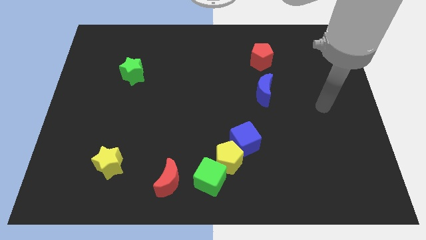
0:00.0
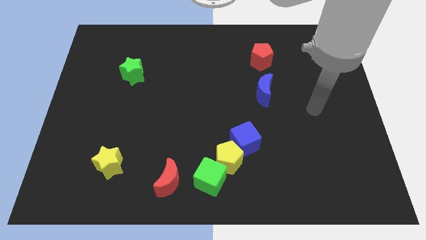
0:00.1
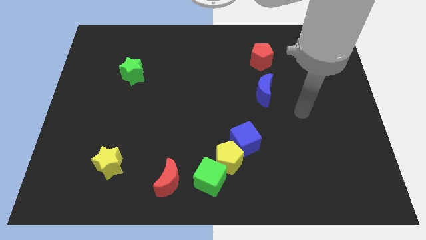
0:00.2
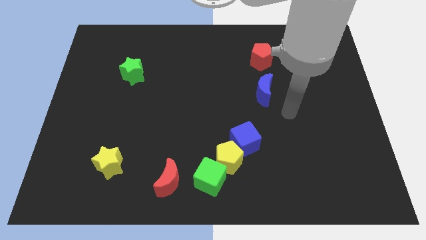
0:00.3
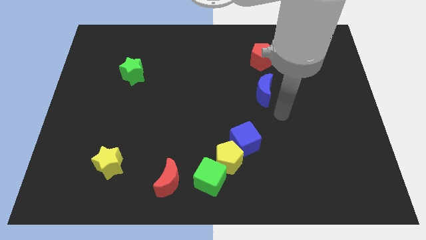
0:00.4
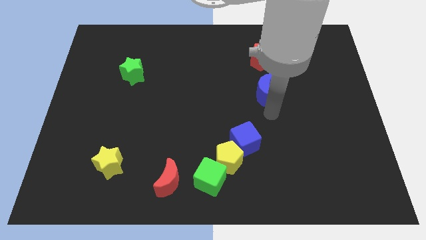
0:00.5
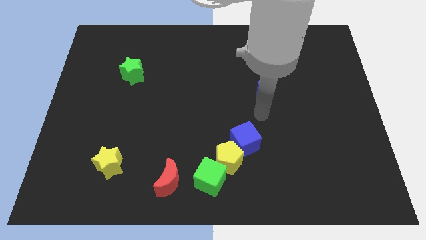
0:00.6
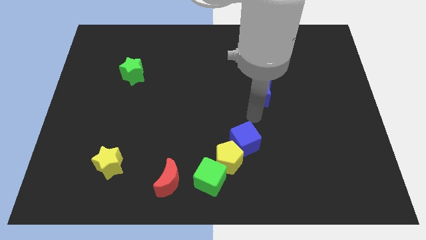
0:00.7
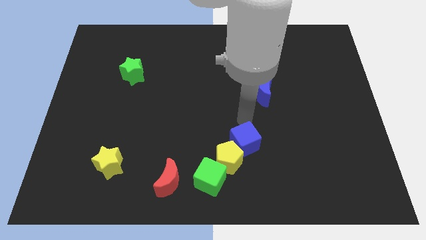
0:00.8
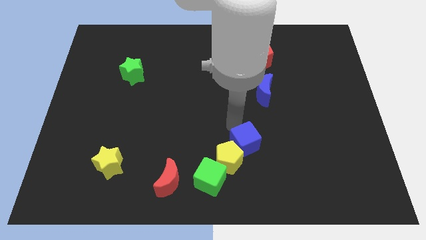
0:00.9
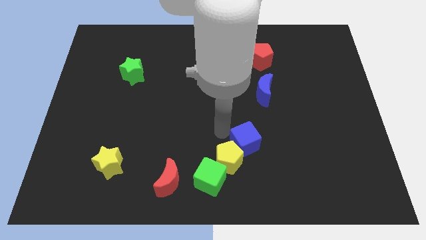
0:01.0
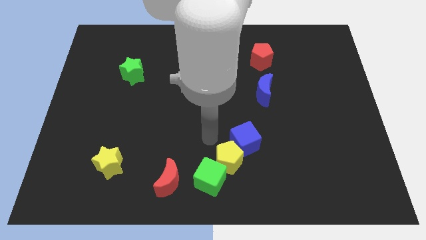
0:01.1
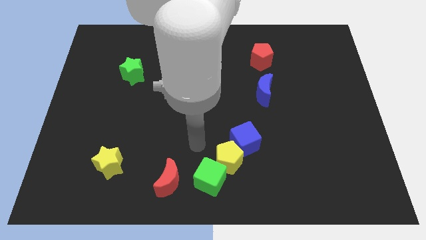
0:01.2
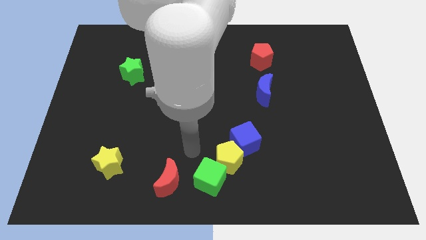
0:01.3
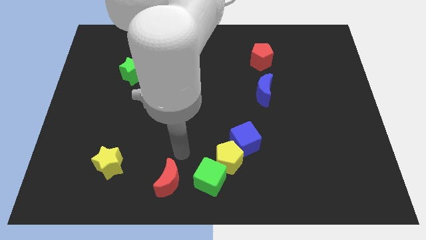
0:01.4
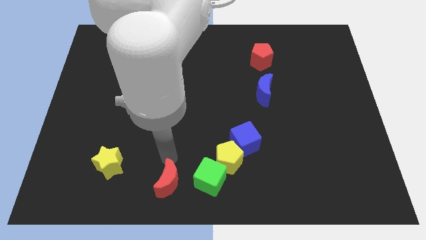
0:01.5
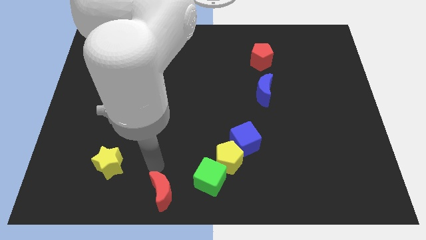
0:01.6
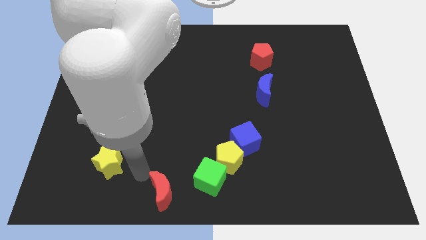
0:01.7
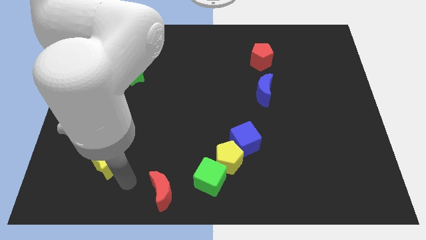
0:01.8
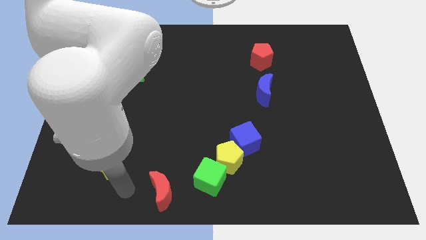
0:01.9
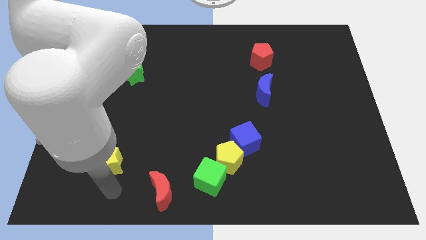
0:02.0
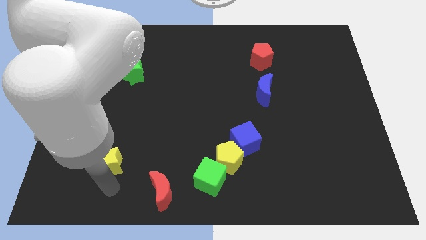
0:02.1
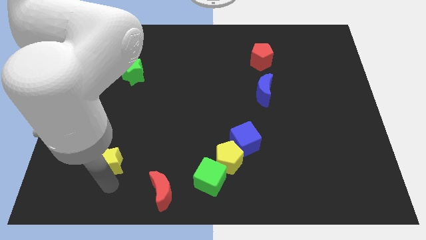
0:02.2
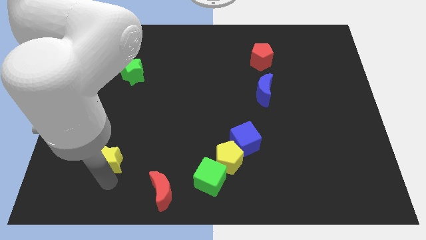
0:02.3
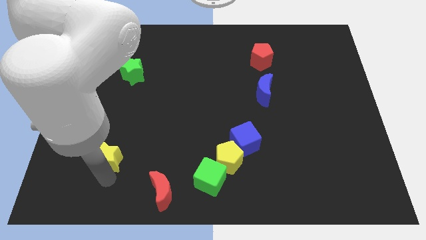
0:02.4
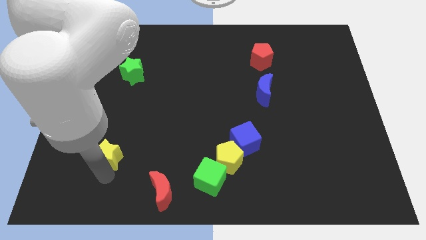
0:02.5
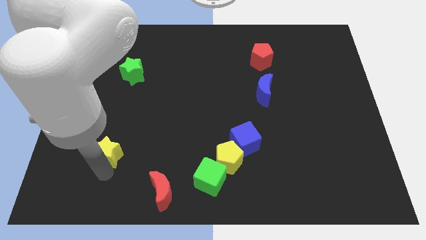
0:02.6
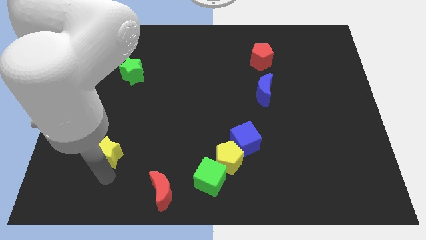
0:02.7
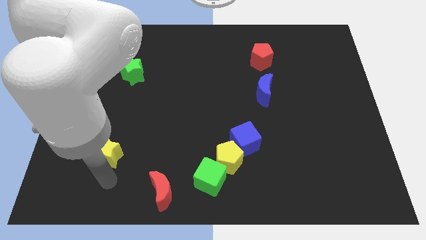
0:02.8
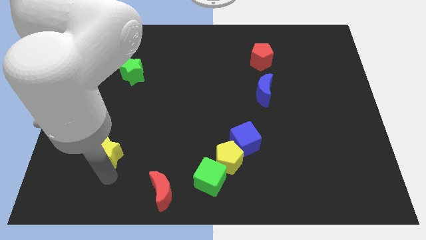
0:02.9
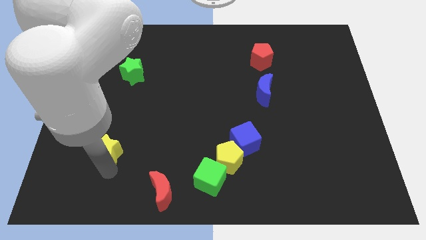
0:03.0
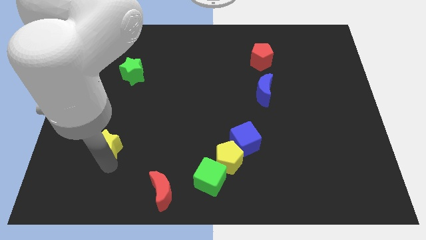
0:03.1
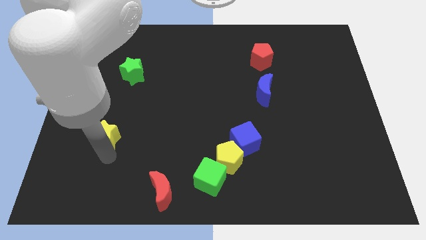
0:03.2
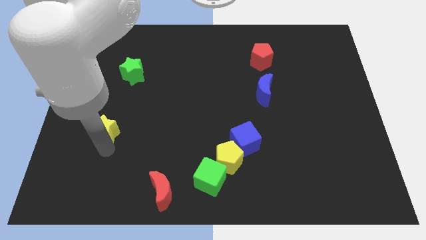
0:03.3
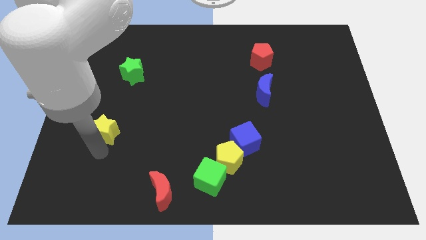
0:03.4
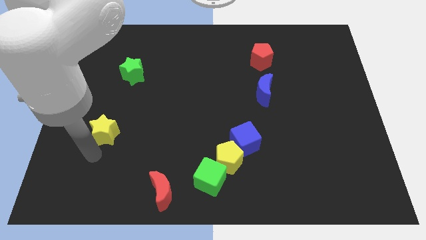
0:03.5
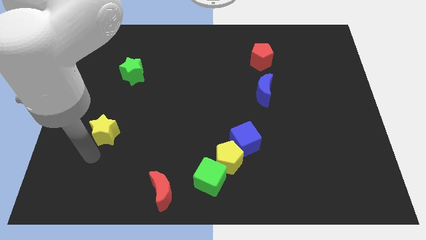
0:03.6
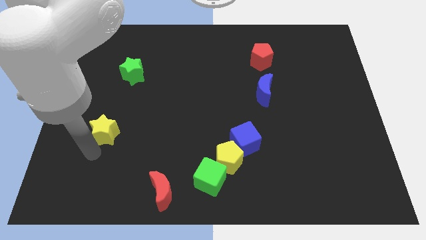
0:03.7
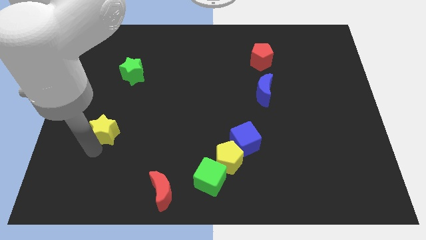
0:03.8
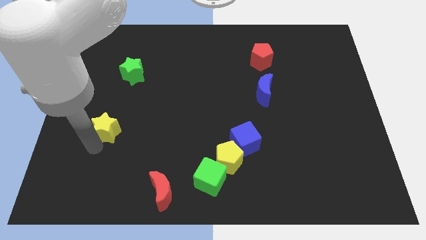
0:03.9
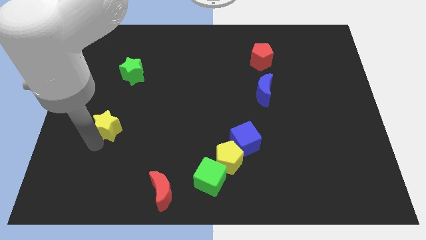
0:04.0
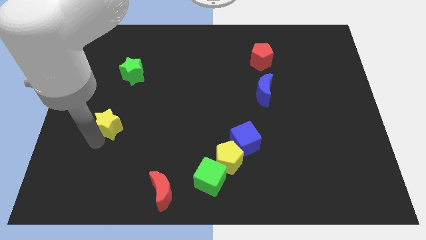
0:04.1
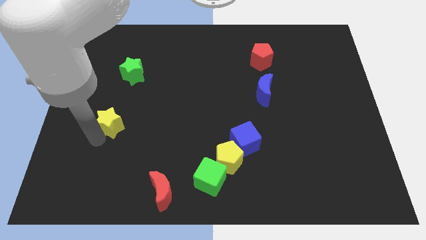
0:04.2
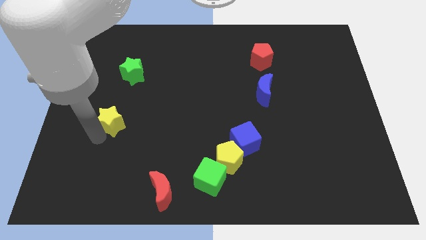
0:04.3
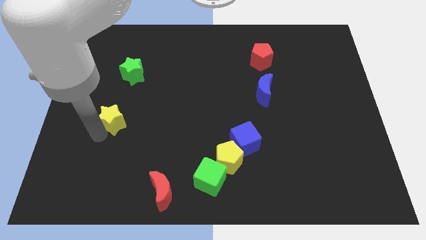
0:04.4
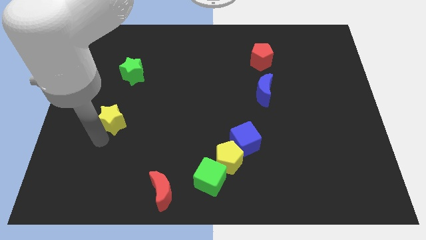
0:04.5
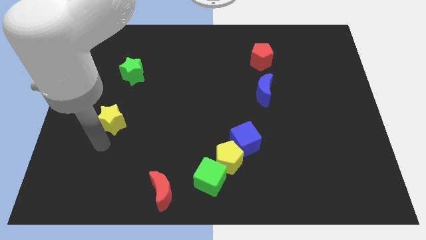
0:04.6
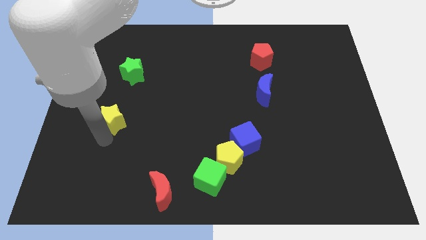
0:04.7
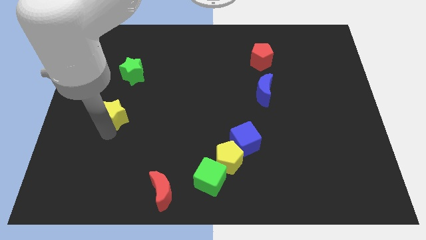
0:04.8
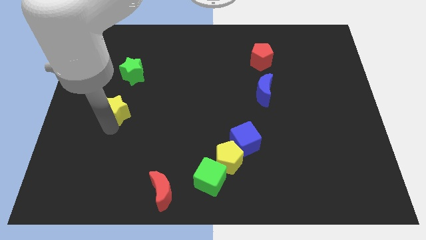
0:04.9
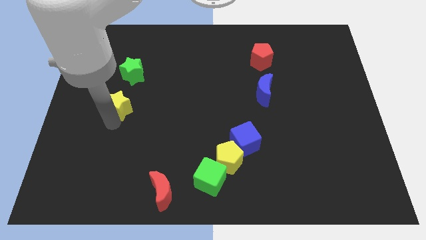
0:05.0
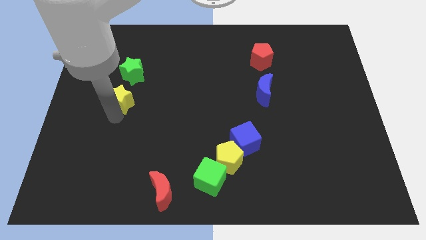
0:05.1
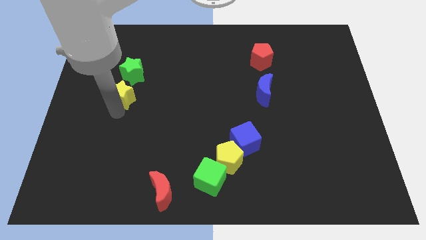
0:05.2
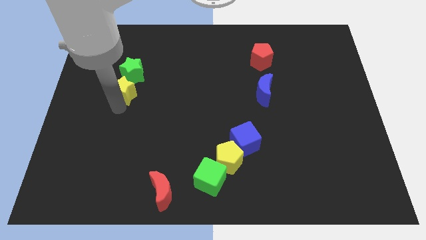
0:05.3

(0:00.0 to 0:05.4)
move the yellow star to the green star

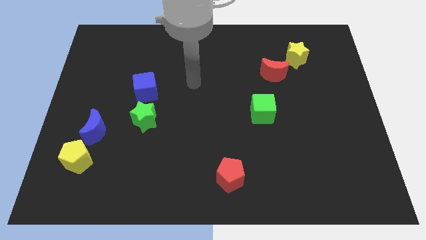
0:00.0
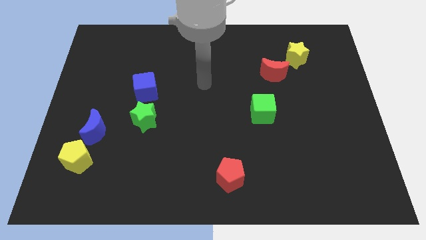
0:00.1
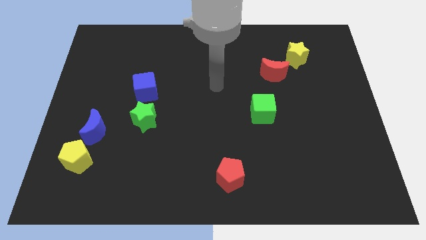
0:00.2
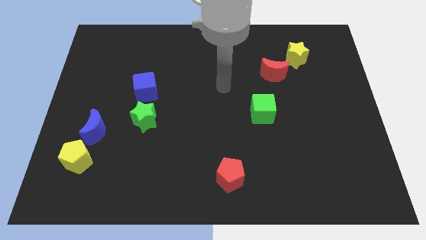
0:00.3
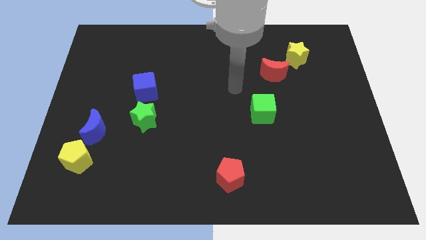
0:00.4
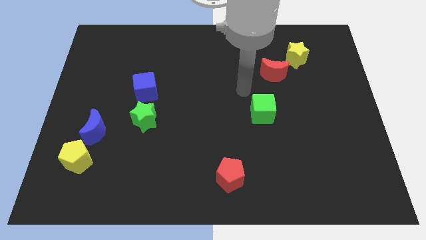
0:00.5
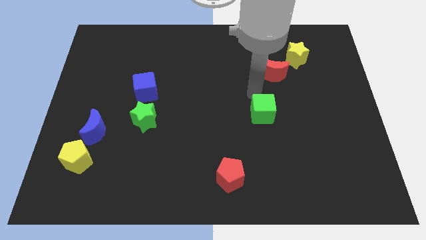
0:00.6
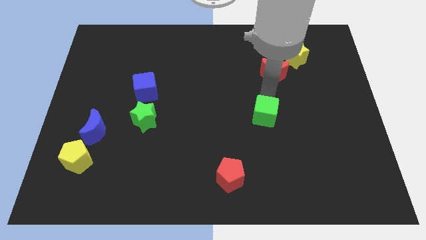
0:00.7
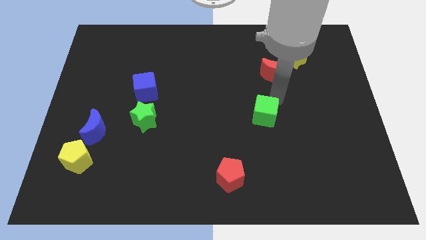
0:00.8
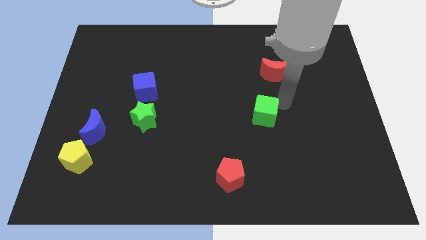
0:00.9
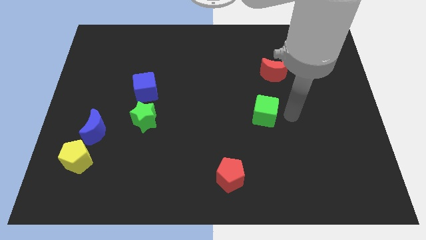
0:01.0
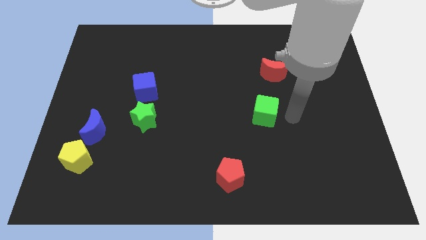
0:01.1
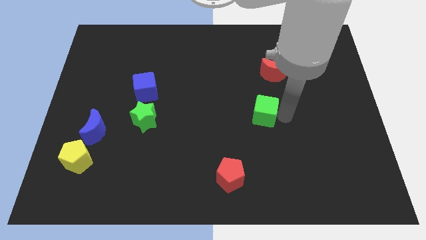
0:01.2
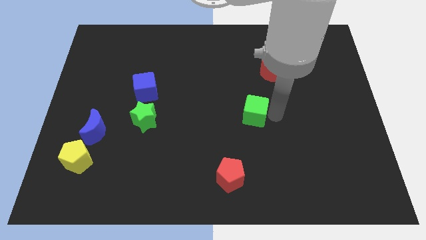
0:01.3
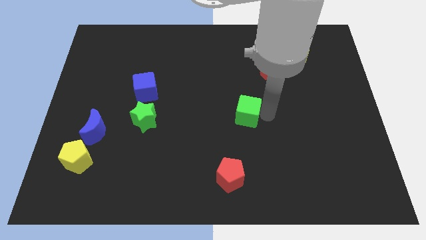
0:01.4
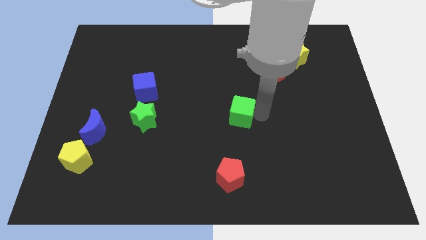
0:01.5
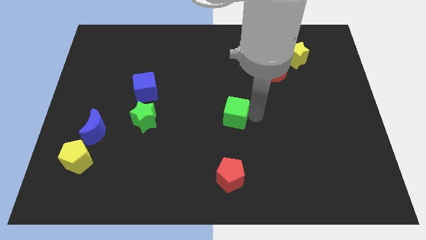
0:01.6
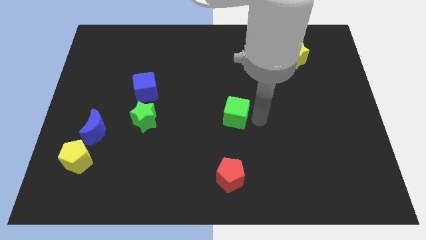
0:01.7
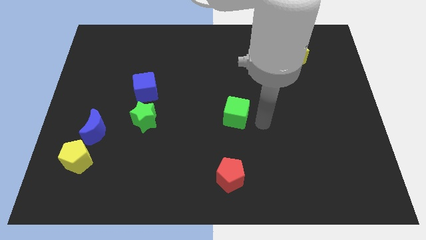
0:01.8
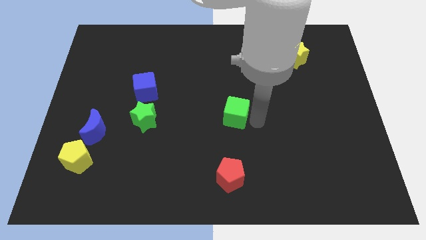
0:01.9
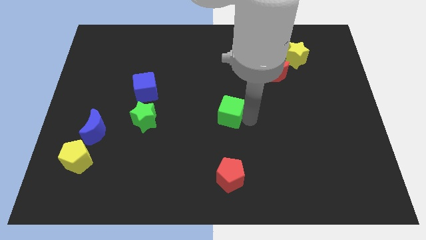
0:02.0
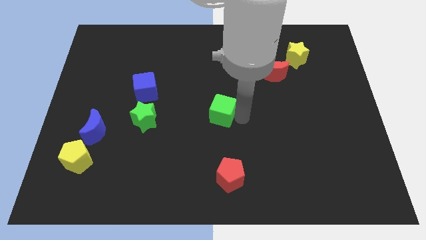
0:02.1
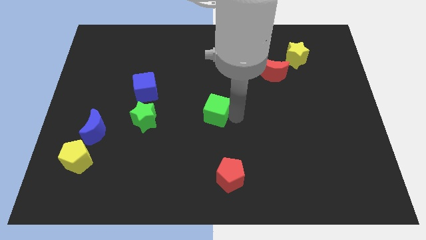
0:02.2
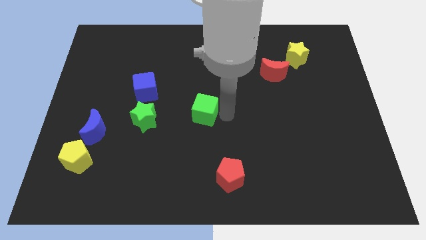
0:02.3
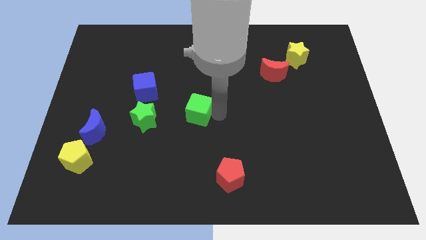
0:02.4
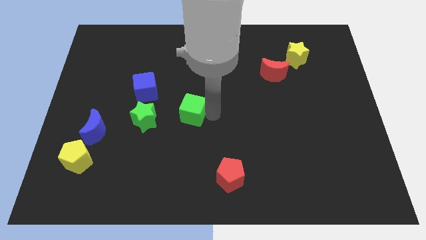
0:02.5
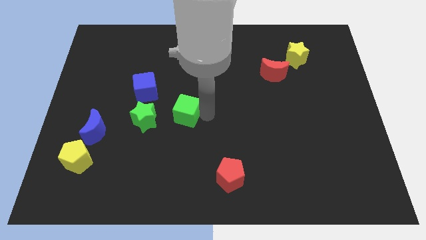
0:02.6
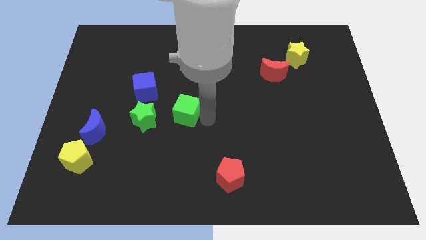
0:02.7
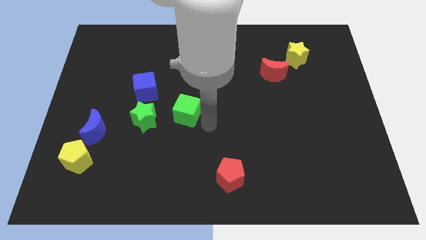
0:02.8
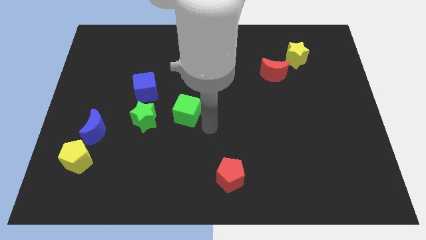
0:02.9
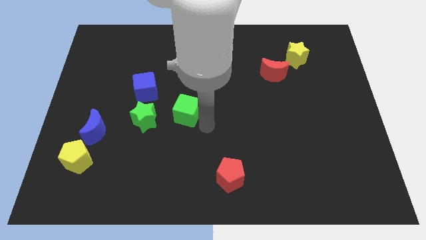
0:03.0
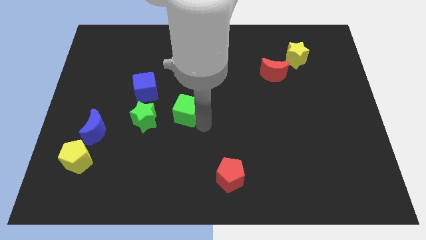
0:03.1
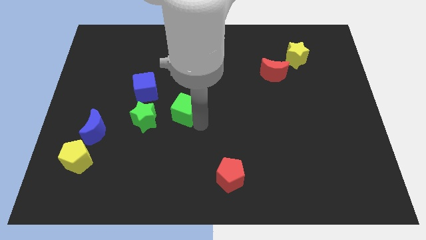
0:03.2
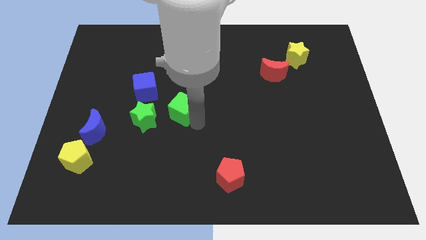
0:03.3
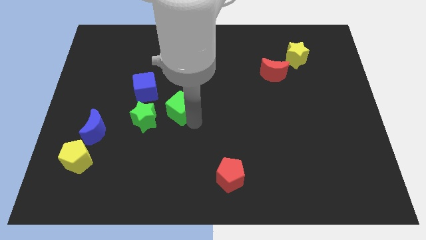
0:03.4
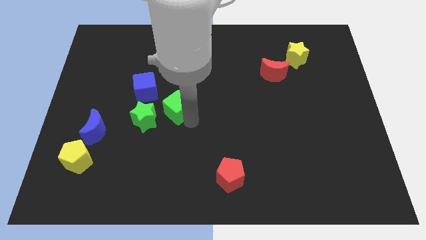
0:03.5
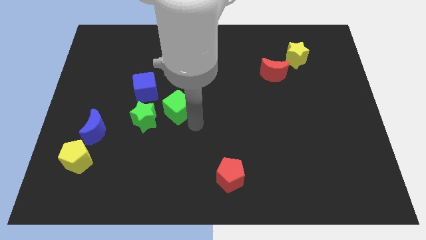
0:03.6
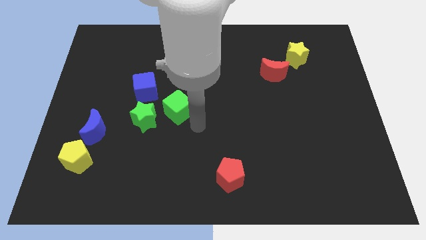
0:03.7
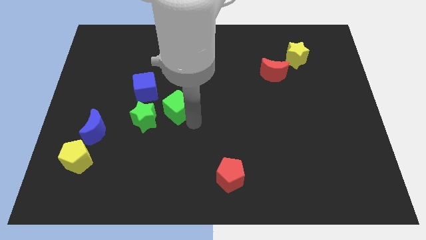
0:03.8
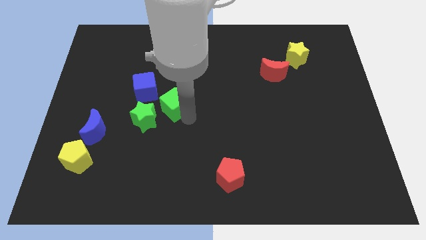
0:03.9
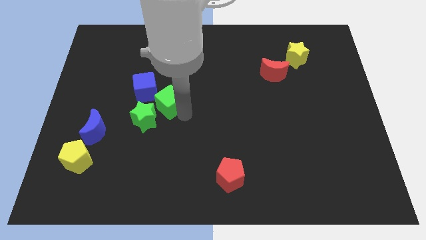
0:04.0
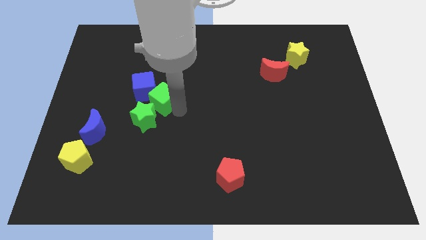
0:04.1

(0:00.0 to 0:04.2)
put the green cube to the blue cube
